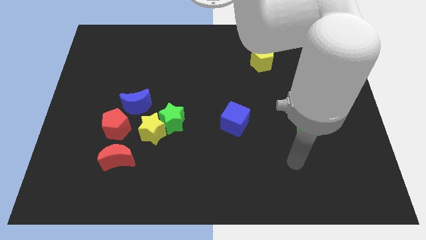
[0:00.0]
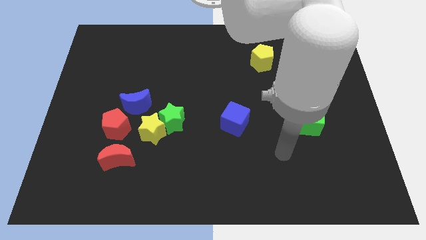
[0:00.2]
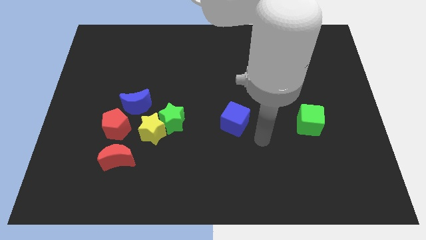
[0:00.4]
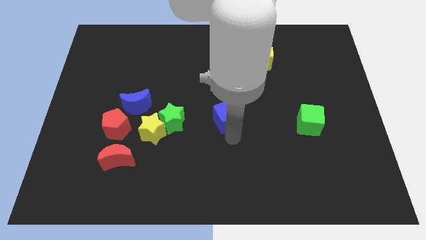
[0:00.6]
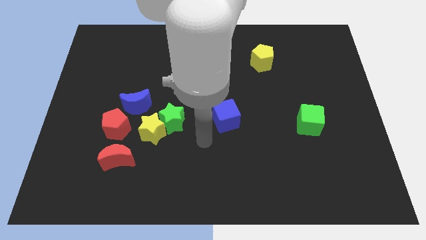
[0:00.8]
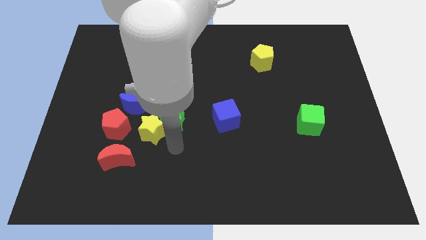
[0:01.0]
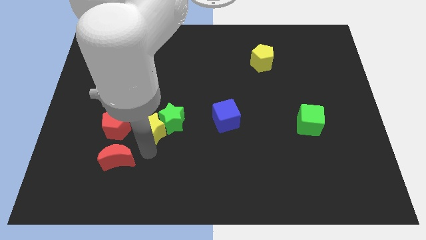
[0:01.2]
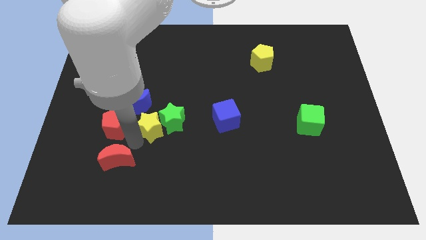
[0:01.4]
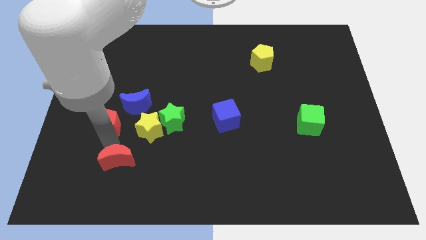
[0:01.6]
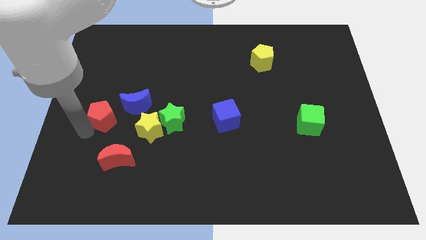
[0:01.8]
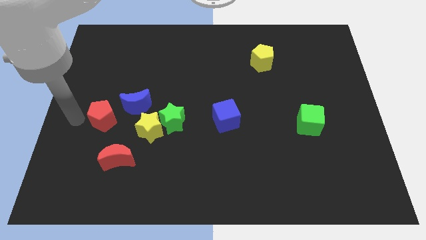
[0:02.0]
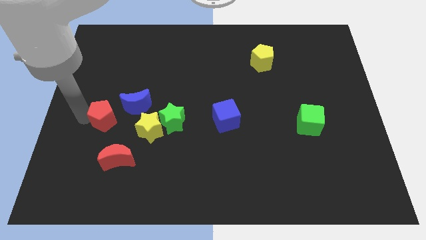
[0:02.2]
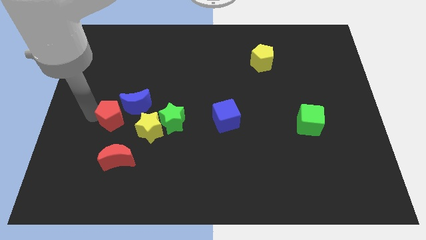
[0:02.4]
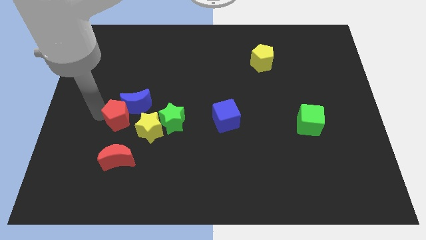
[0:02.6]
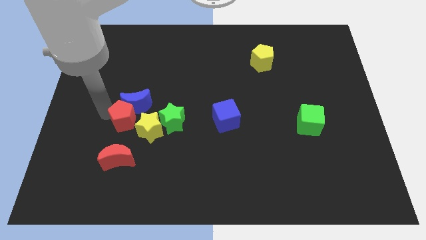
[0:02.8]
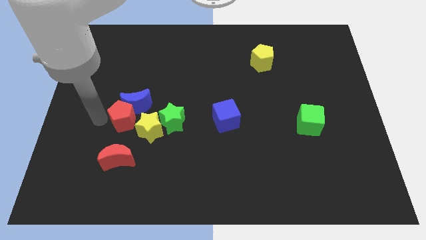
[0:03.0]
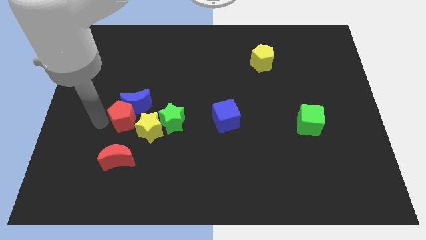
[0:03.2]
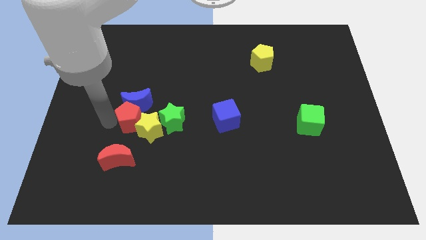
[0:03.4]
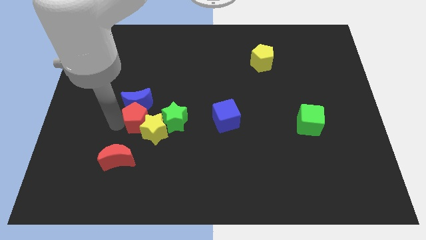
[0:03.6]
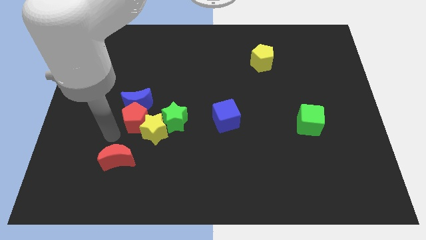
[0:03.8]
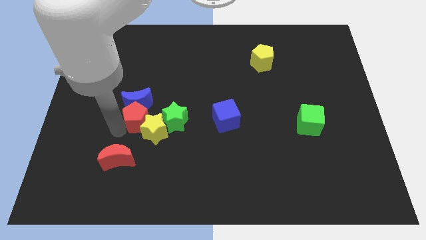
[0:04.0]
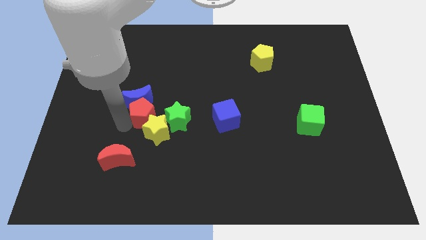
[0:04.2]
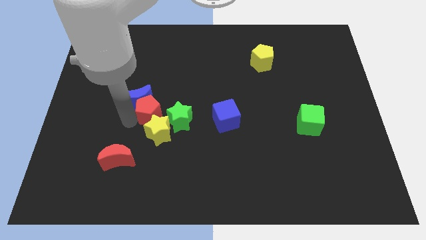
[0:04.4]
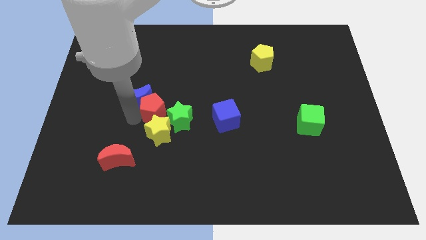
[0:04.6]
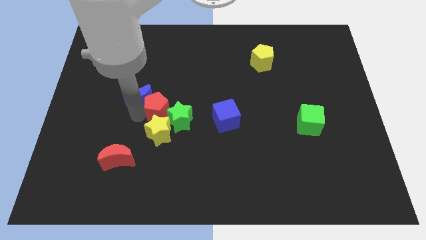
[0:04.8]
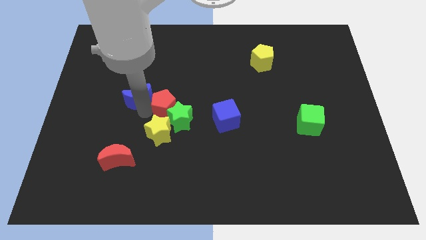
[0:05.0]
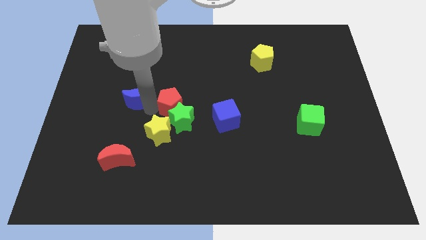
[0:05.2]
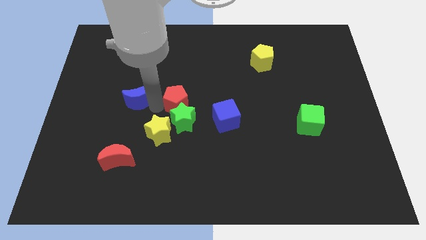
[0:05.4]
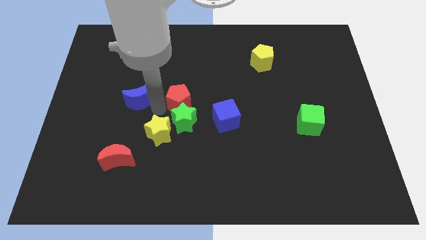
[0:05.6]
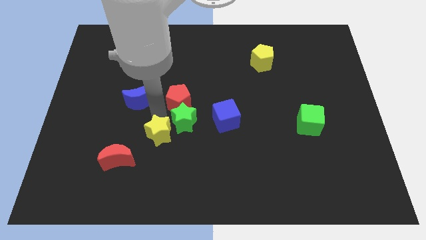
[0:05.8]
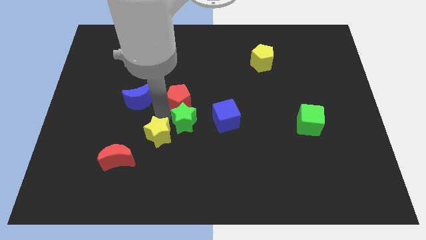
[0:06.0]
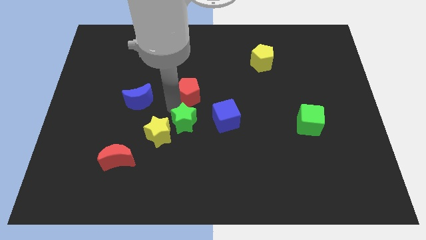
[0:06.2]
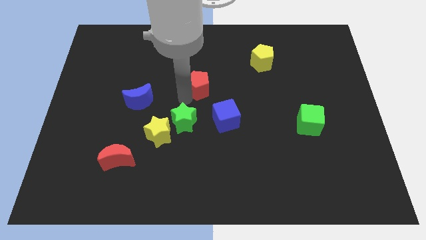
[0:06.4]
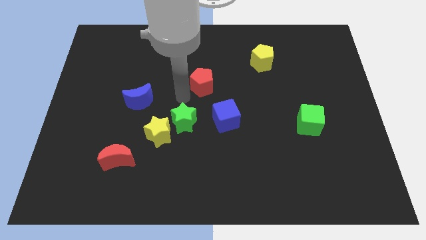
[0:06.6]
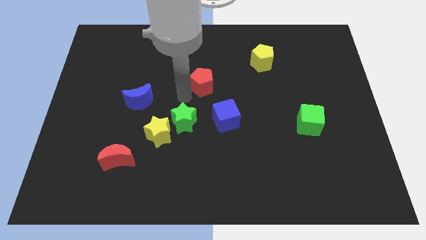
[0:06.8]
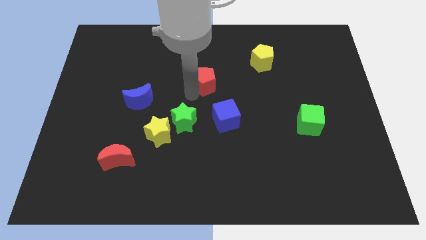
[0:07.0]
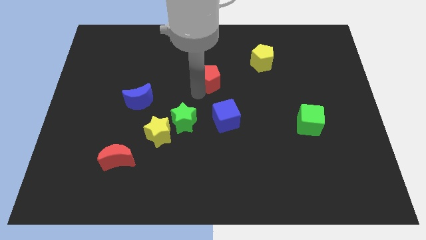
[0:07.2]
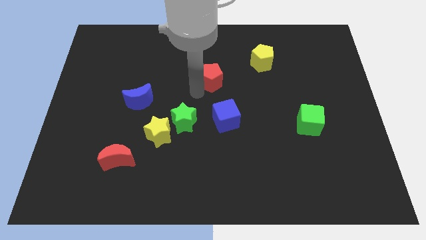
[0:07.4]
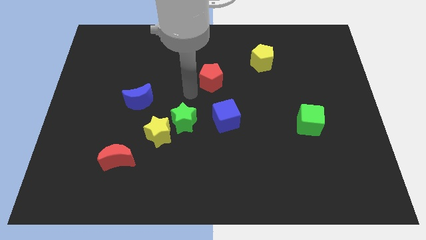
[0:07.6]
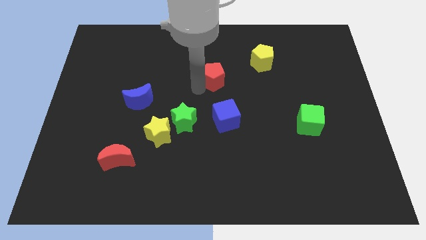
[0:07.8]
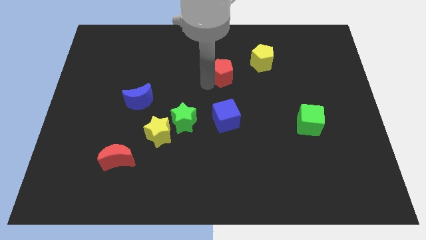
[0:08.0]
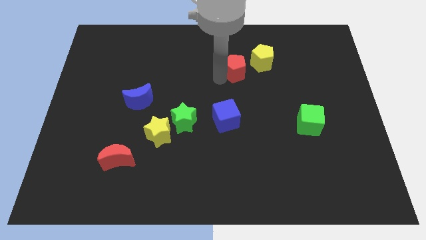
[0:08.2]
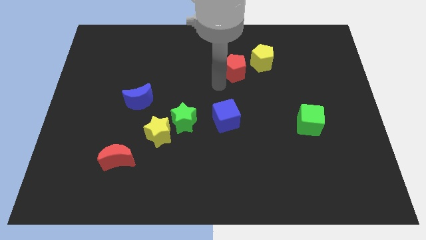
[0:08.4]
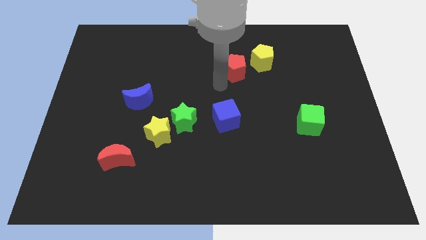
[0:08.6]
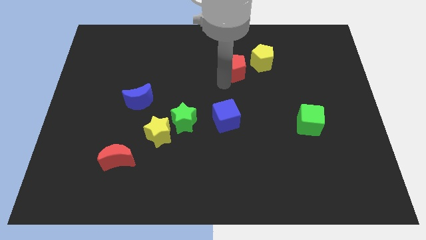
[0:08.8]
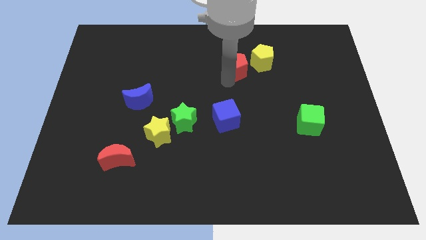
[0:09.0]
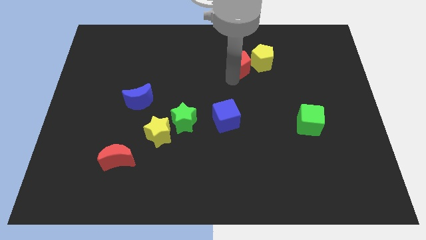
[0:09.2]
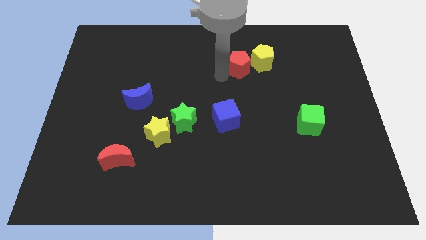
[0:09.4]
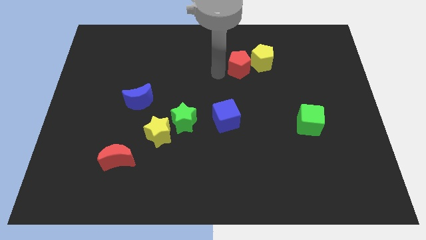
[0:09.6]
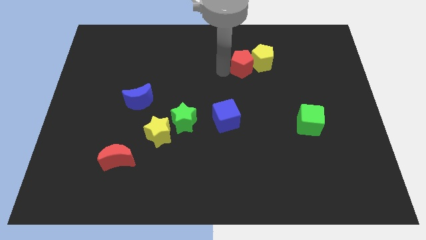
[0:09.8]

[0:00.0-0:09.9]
push the red pentagon towards the yellow pentagon

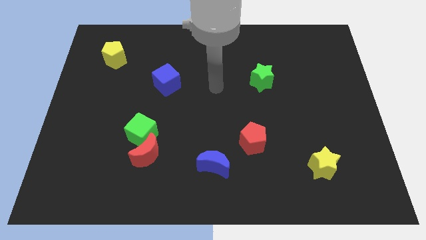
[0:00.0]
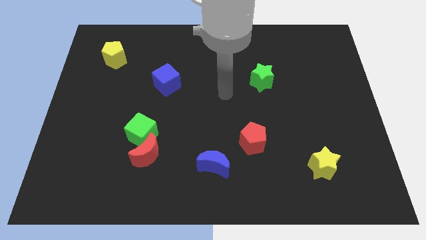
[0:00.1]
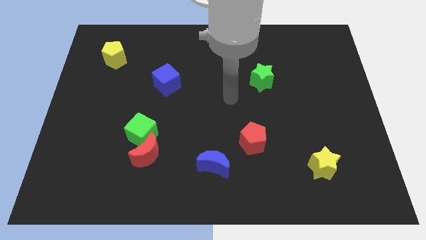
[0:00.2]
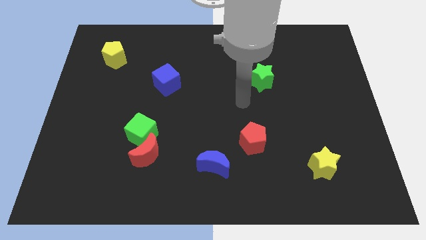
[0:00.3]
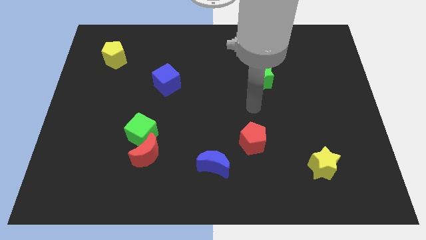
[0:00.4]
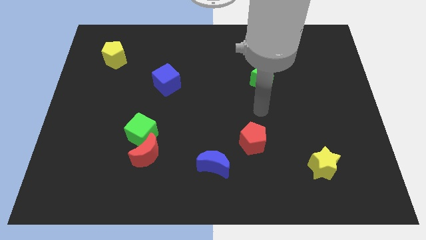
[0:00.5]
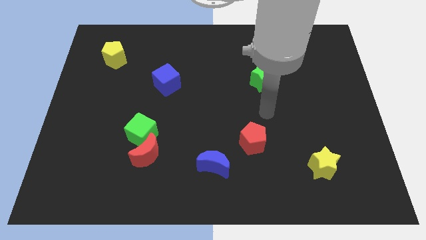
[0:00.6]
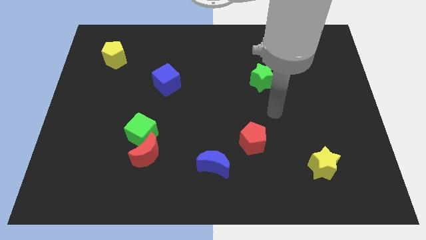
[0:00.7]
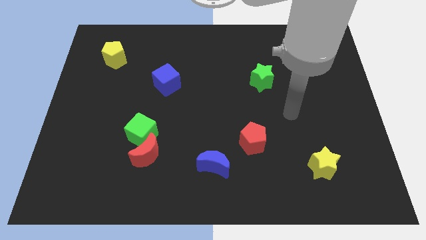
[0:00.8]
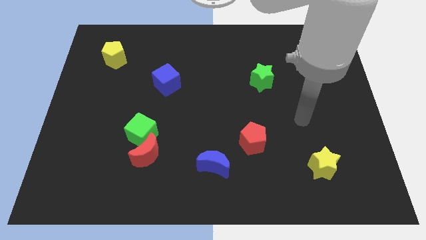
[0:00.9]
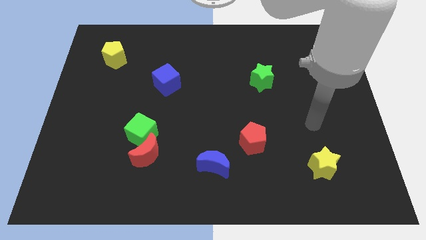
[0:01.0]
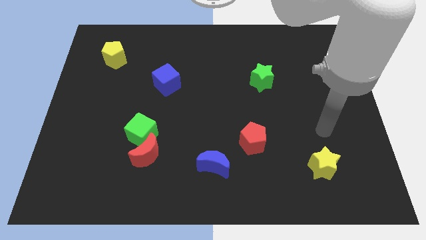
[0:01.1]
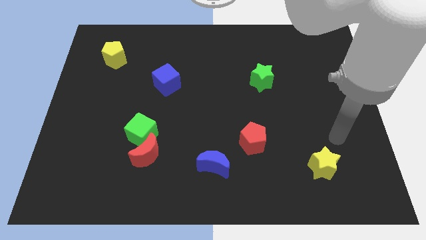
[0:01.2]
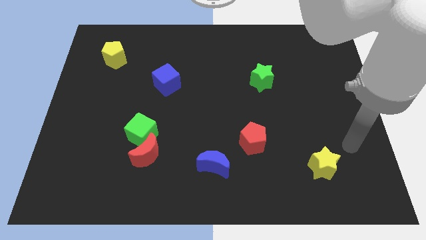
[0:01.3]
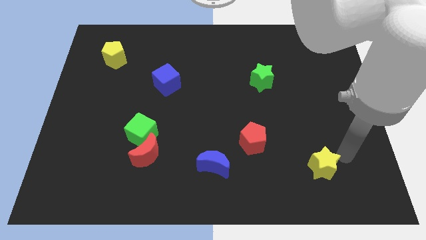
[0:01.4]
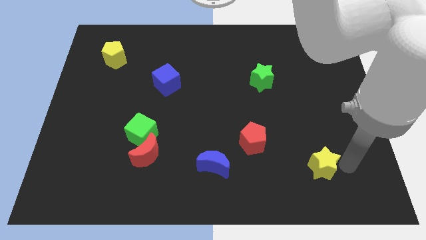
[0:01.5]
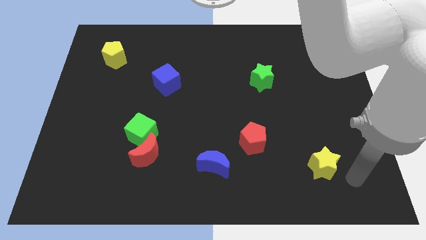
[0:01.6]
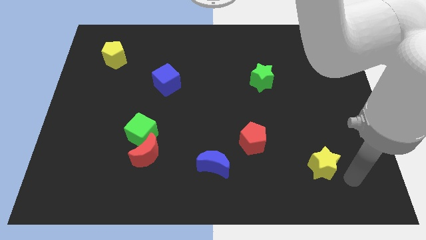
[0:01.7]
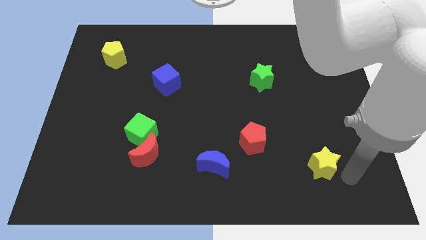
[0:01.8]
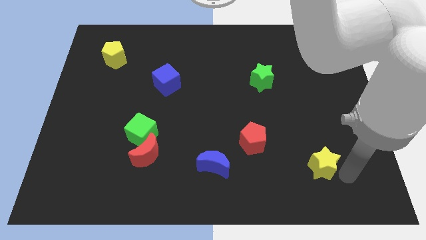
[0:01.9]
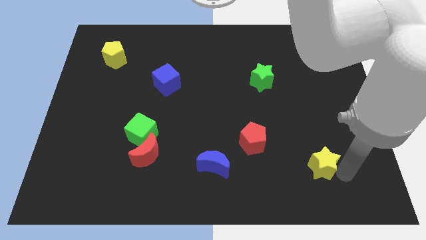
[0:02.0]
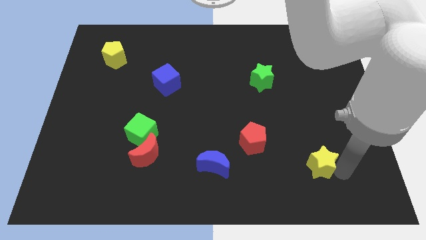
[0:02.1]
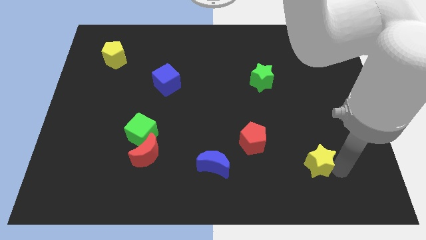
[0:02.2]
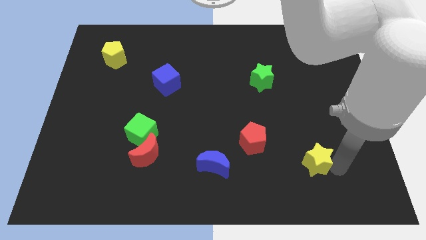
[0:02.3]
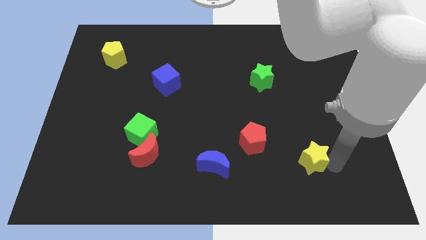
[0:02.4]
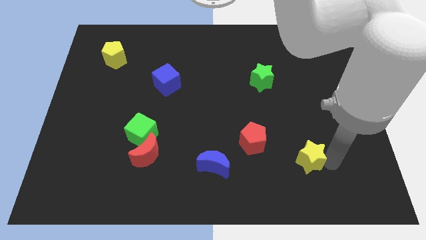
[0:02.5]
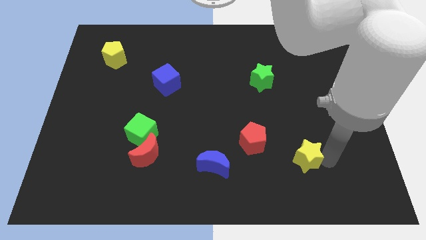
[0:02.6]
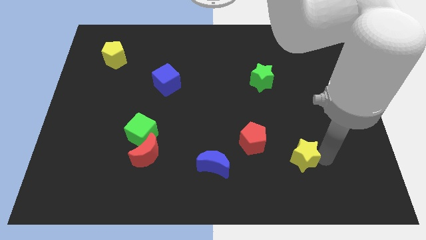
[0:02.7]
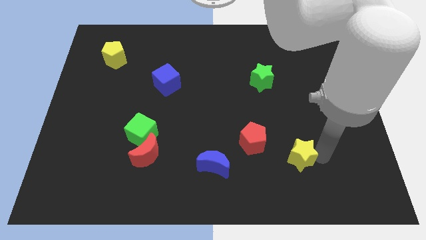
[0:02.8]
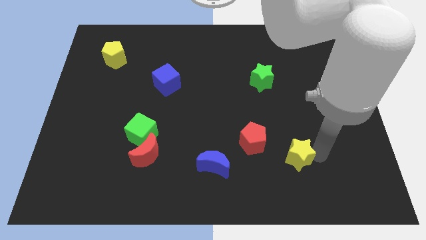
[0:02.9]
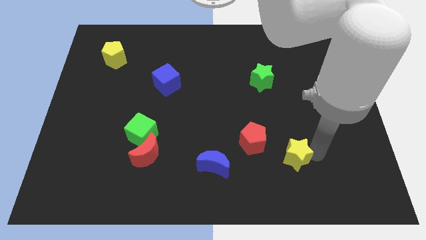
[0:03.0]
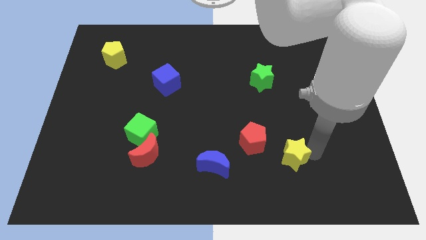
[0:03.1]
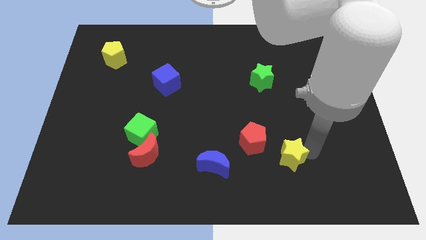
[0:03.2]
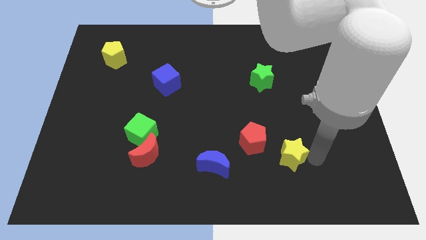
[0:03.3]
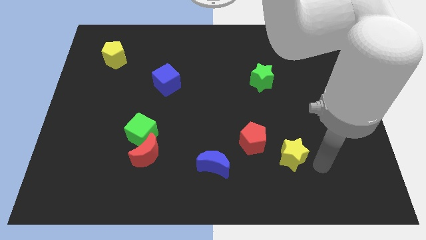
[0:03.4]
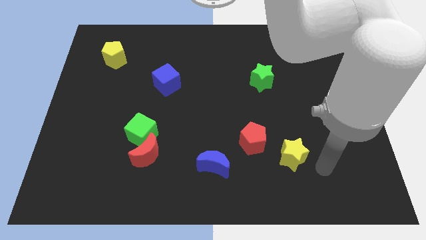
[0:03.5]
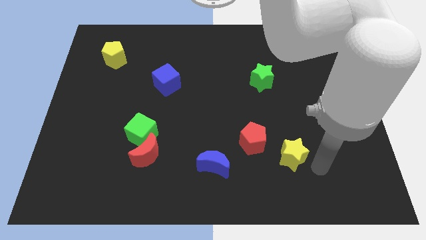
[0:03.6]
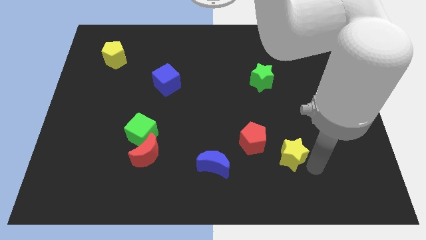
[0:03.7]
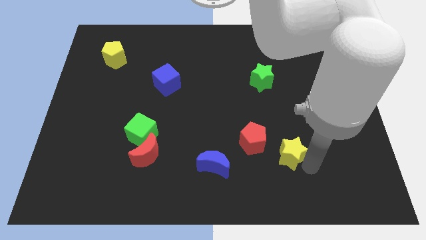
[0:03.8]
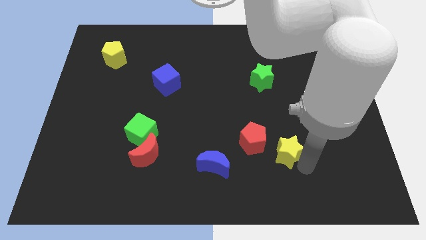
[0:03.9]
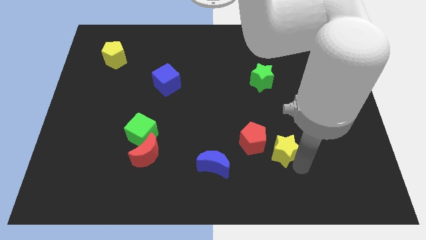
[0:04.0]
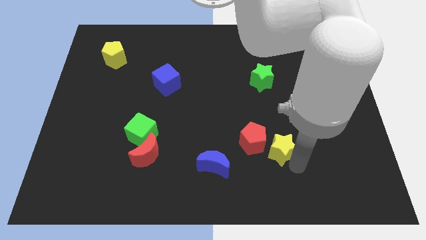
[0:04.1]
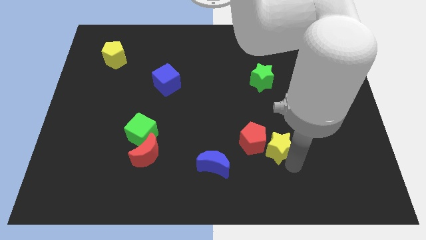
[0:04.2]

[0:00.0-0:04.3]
put the yellow star towards the red pentagon
